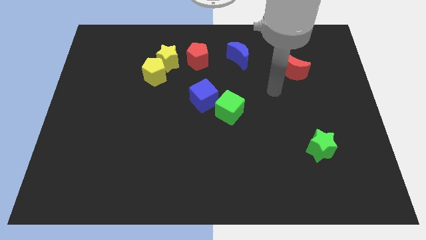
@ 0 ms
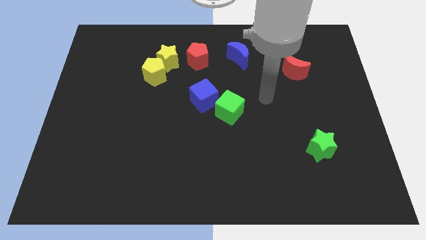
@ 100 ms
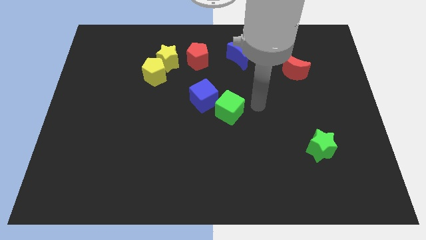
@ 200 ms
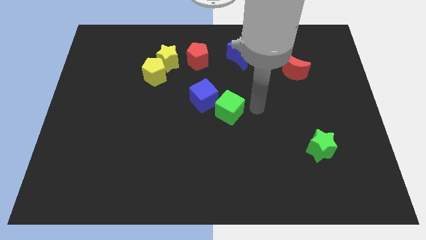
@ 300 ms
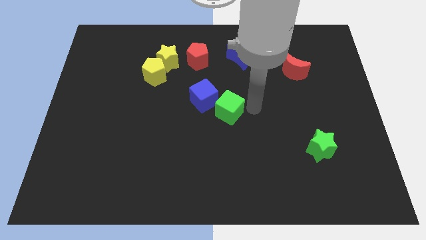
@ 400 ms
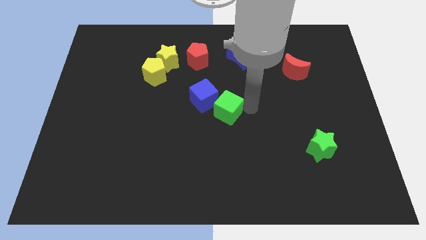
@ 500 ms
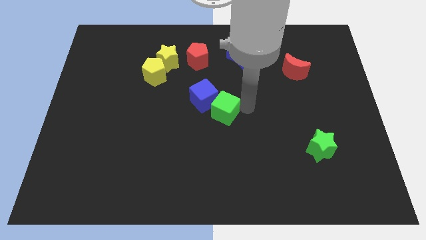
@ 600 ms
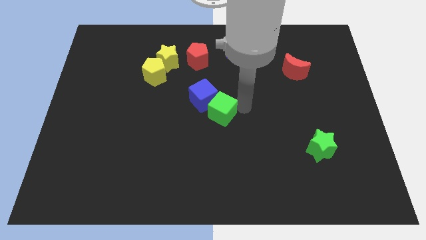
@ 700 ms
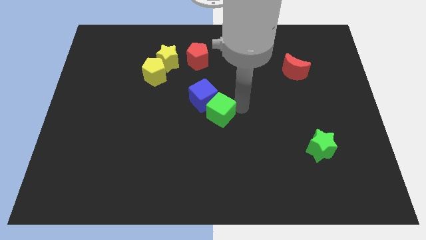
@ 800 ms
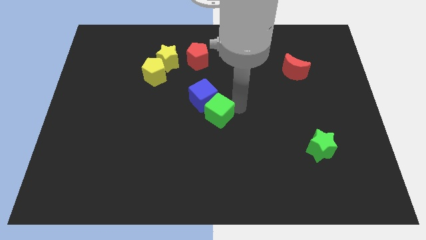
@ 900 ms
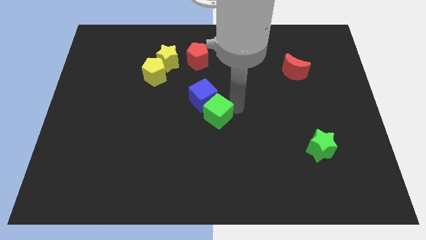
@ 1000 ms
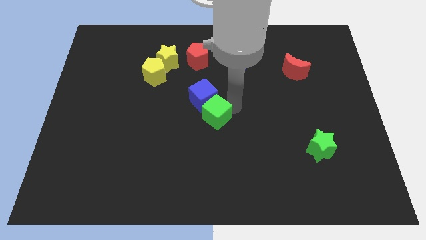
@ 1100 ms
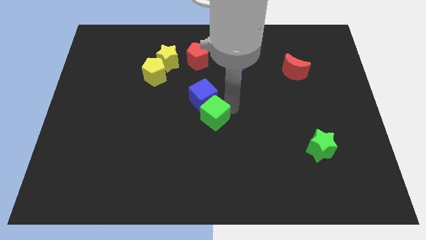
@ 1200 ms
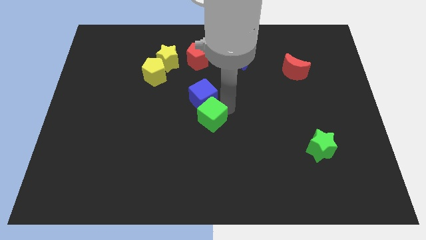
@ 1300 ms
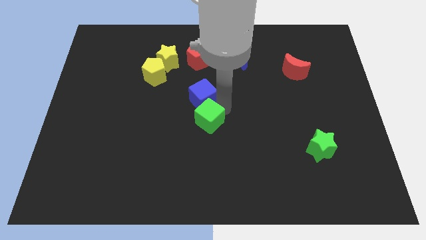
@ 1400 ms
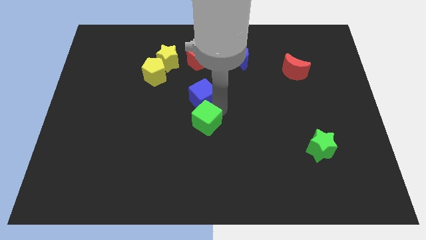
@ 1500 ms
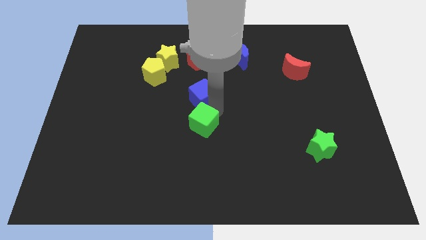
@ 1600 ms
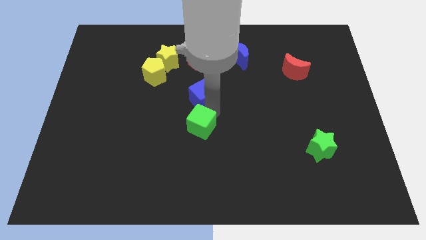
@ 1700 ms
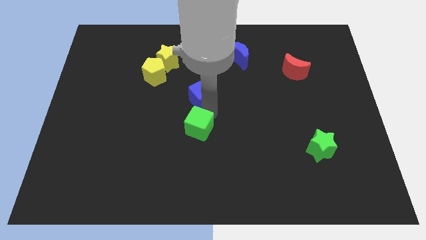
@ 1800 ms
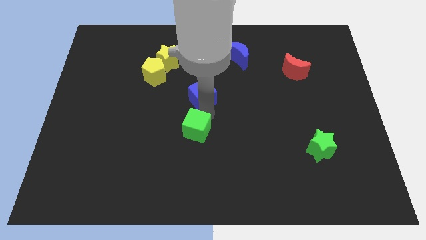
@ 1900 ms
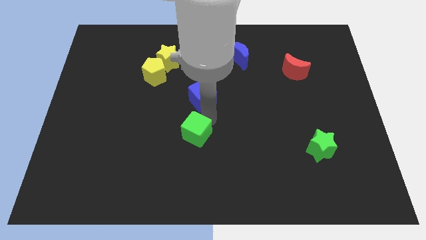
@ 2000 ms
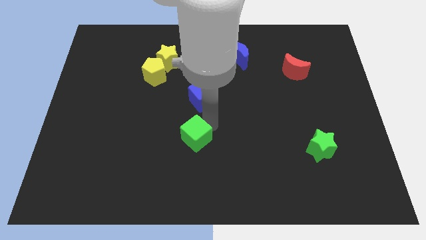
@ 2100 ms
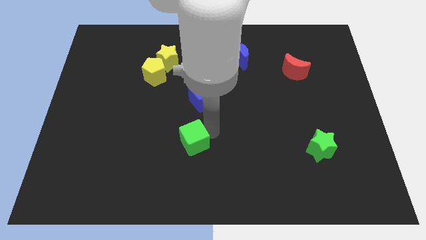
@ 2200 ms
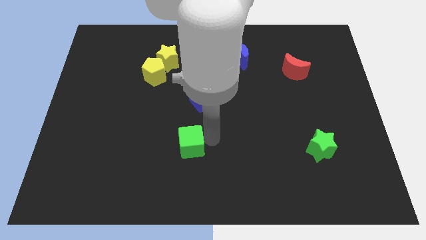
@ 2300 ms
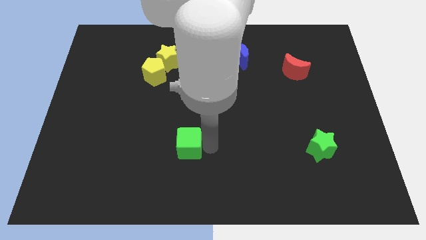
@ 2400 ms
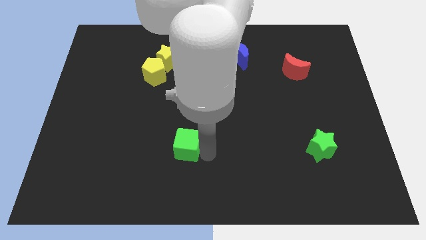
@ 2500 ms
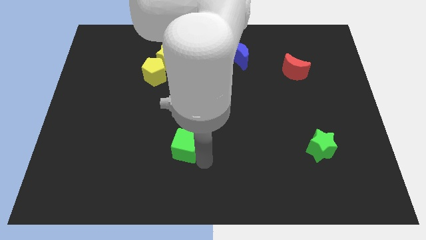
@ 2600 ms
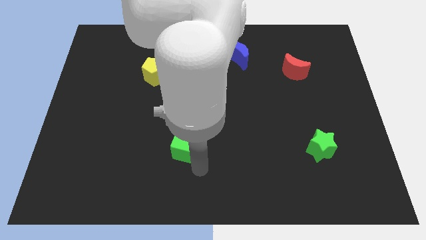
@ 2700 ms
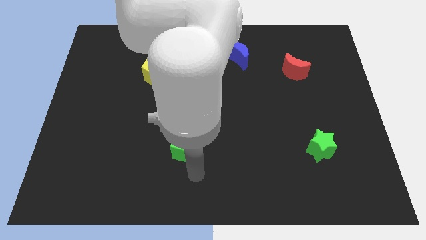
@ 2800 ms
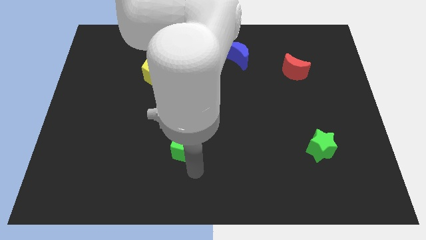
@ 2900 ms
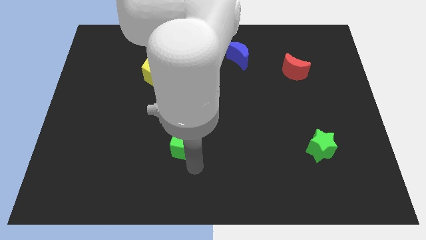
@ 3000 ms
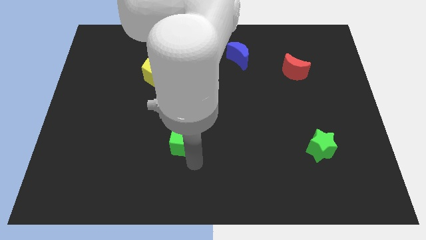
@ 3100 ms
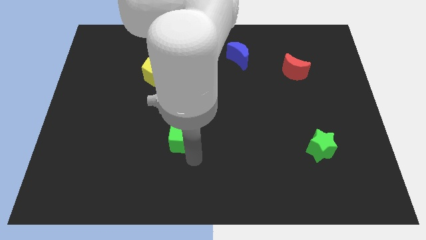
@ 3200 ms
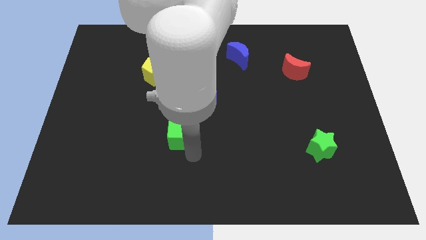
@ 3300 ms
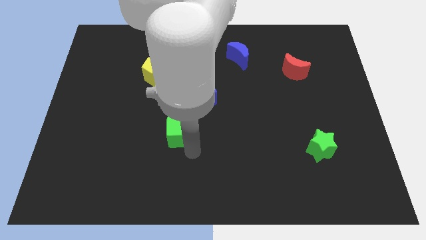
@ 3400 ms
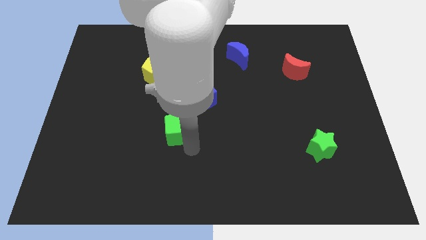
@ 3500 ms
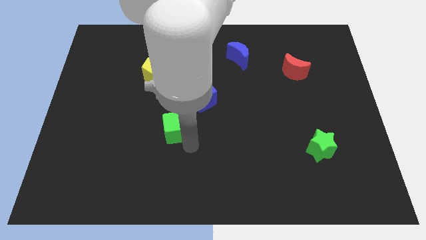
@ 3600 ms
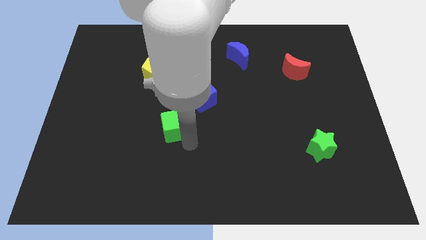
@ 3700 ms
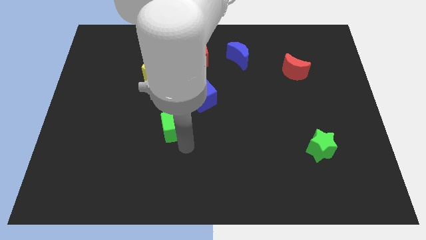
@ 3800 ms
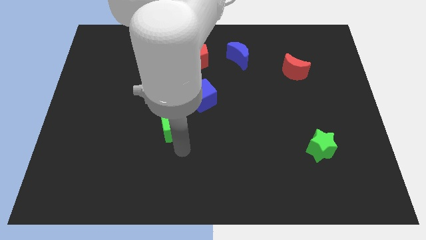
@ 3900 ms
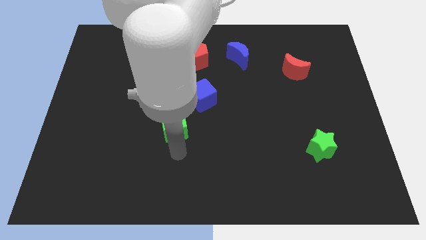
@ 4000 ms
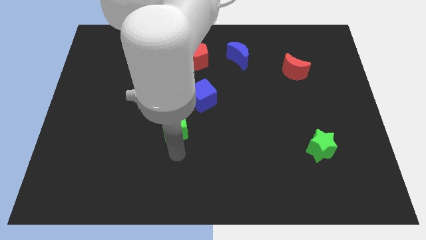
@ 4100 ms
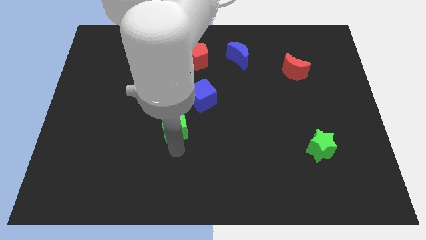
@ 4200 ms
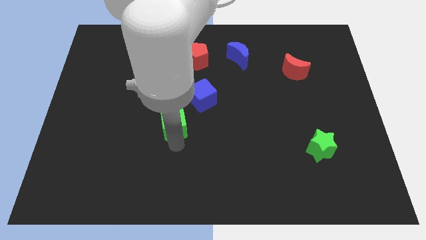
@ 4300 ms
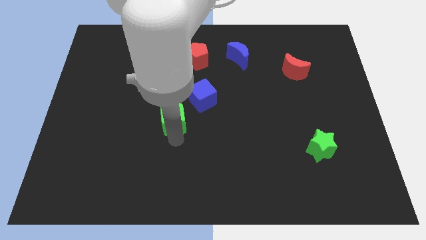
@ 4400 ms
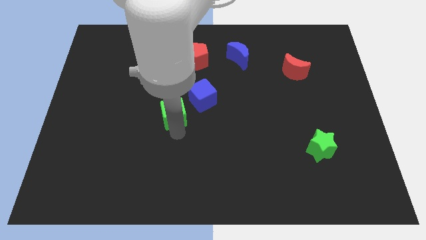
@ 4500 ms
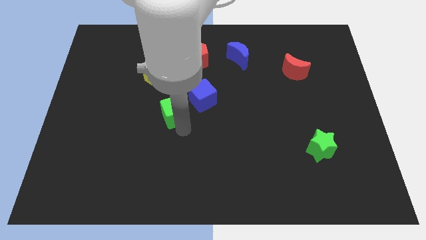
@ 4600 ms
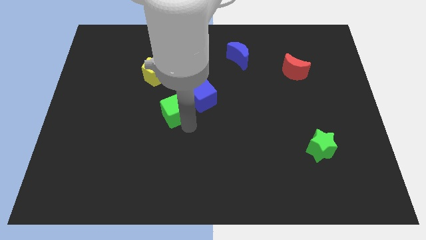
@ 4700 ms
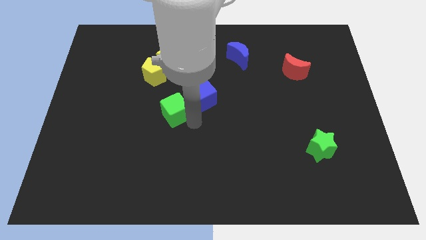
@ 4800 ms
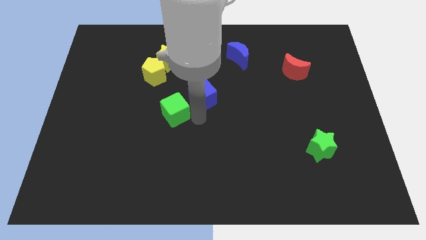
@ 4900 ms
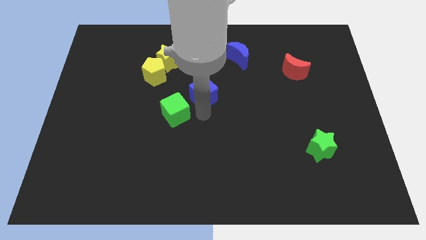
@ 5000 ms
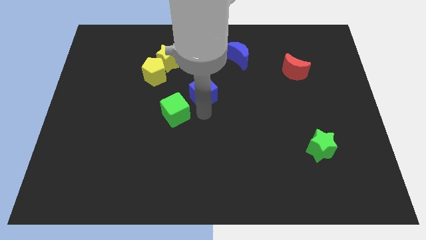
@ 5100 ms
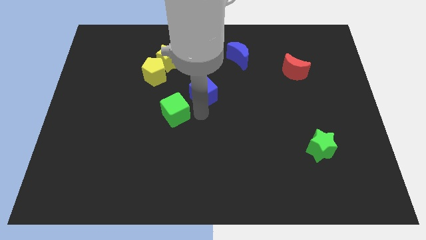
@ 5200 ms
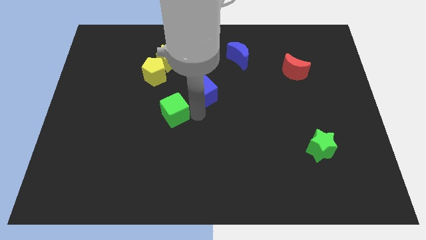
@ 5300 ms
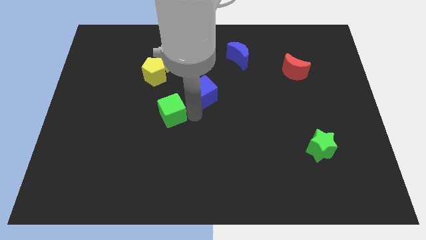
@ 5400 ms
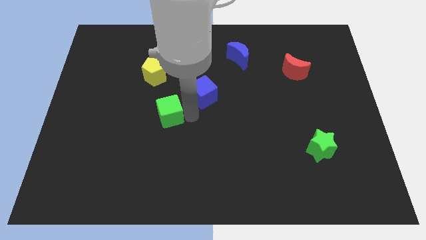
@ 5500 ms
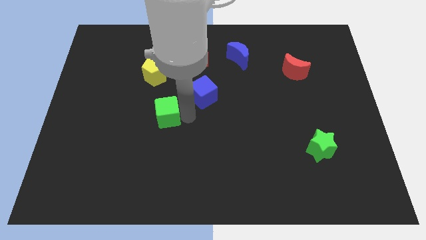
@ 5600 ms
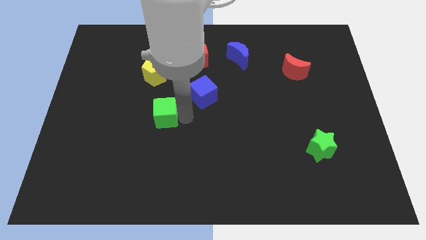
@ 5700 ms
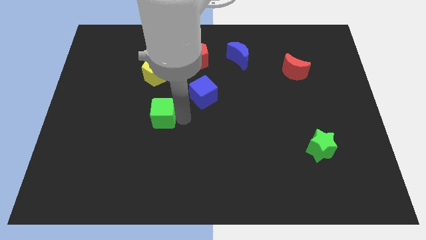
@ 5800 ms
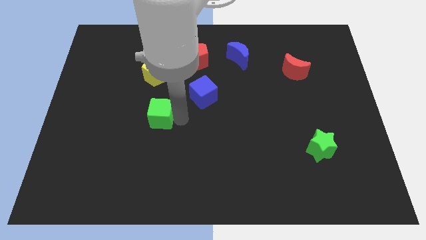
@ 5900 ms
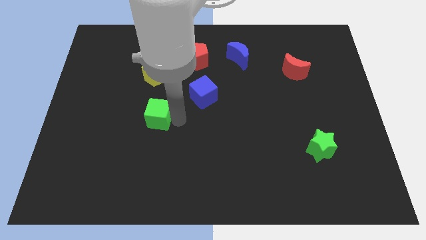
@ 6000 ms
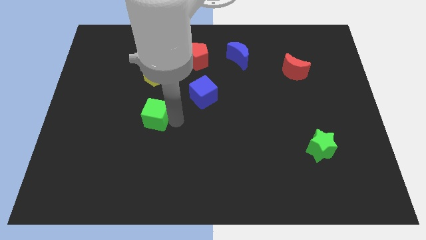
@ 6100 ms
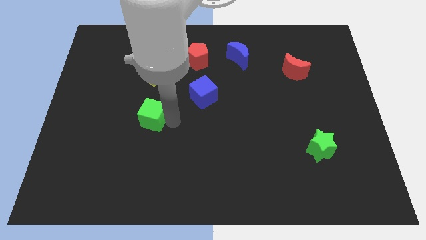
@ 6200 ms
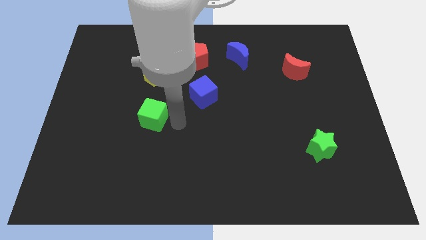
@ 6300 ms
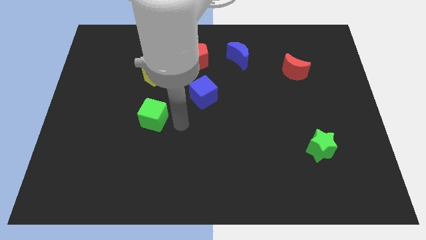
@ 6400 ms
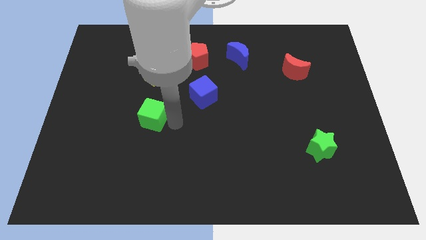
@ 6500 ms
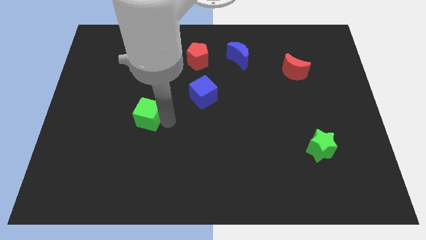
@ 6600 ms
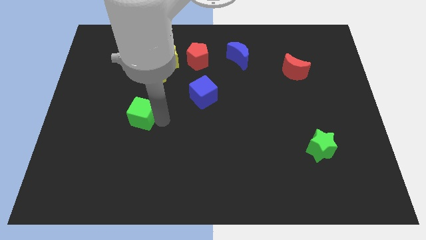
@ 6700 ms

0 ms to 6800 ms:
push the green cube left

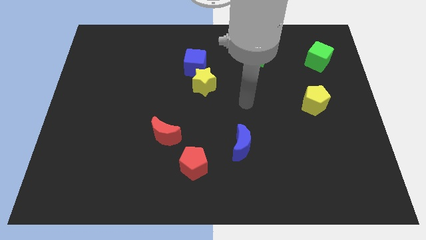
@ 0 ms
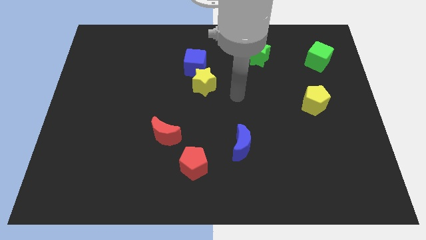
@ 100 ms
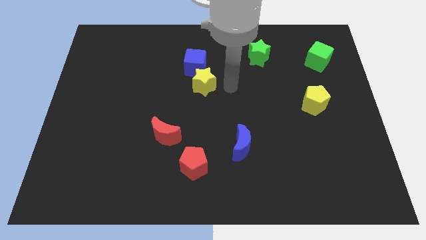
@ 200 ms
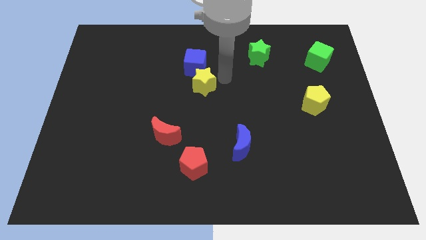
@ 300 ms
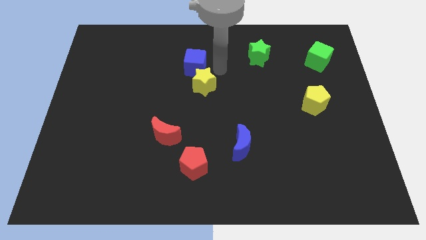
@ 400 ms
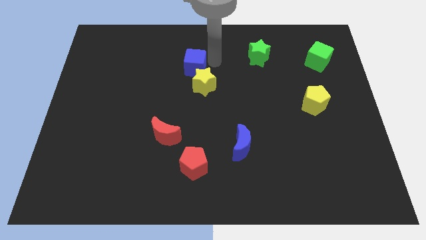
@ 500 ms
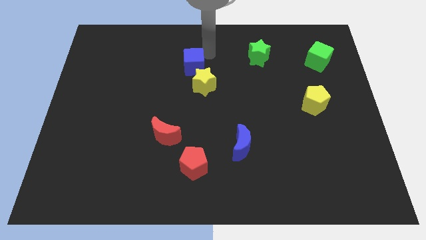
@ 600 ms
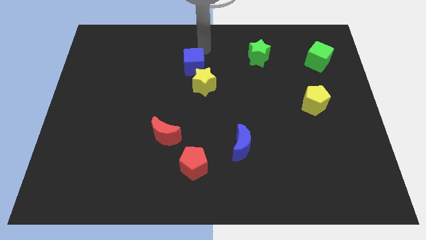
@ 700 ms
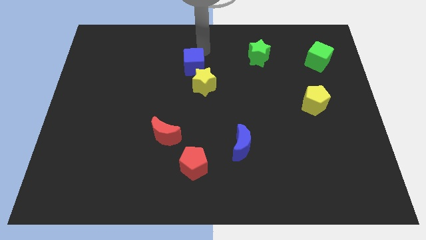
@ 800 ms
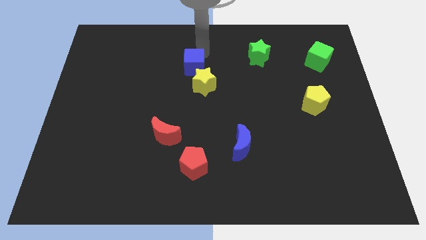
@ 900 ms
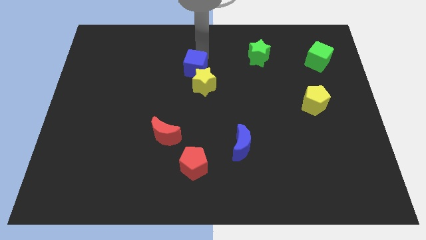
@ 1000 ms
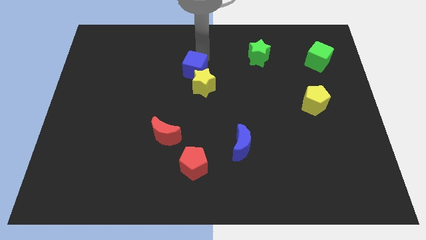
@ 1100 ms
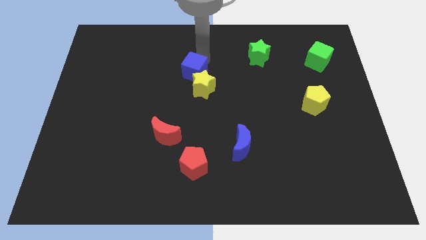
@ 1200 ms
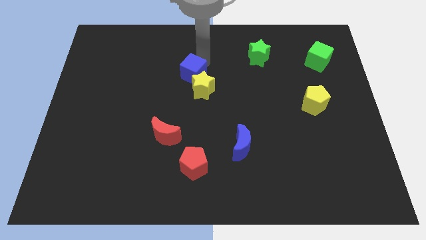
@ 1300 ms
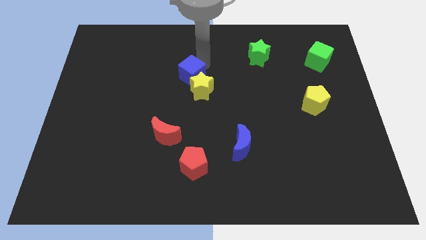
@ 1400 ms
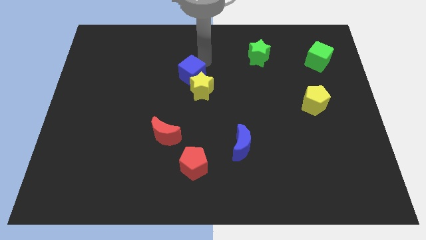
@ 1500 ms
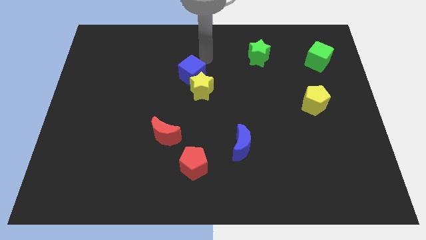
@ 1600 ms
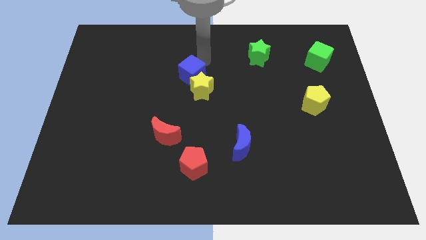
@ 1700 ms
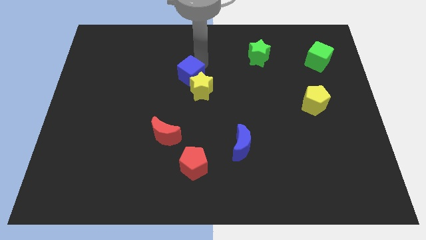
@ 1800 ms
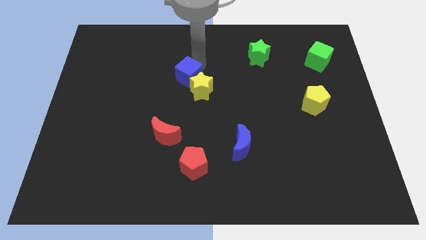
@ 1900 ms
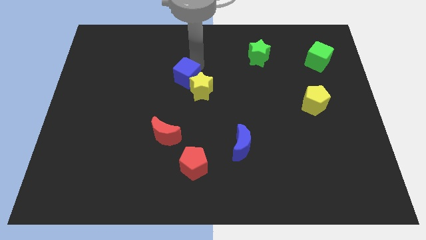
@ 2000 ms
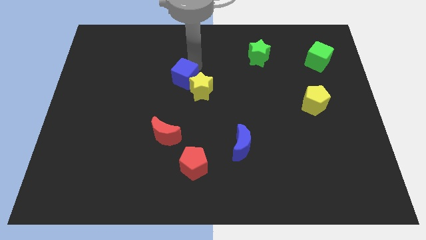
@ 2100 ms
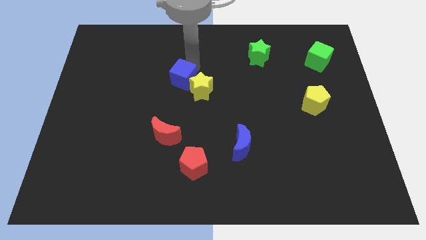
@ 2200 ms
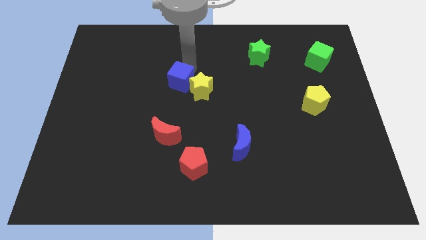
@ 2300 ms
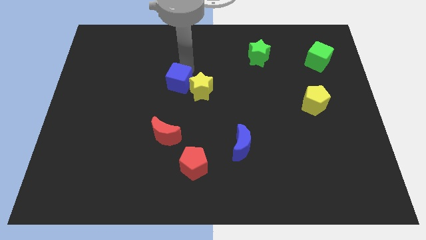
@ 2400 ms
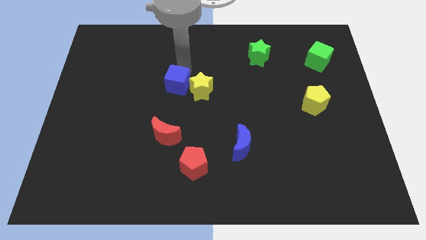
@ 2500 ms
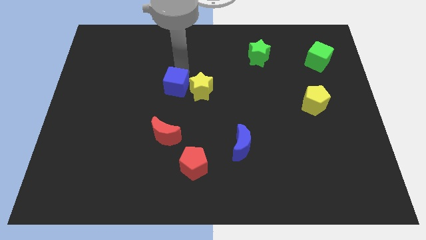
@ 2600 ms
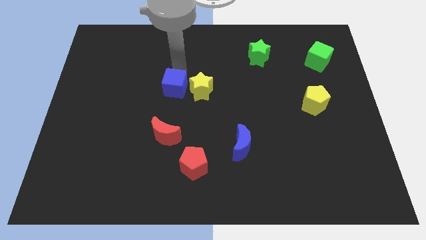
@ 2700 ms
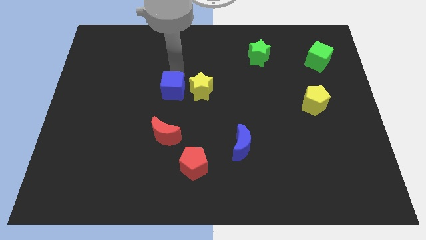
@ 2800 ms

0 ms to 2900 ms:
slide the blue cube downwards slightly
